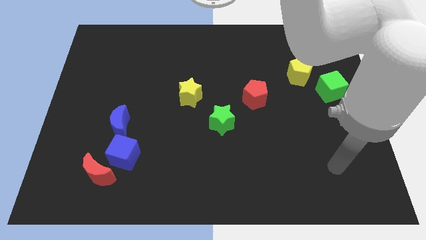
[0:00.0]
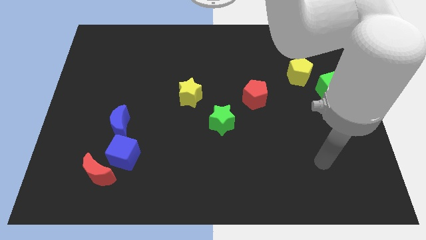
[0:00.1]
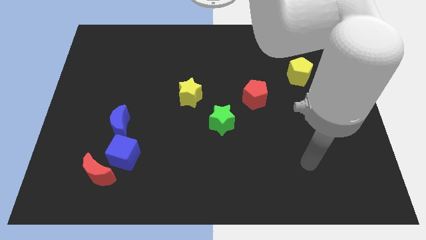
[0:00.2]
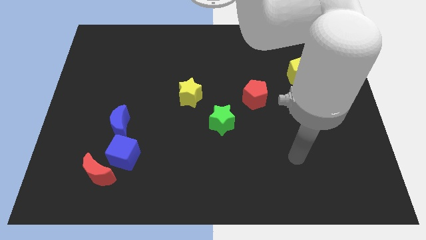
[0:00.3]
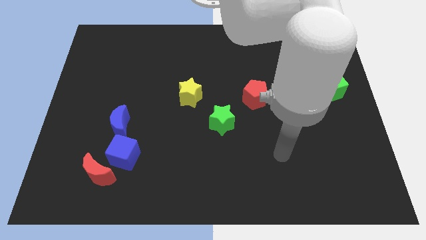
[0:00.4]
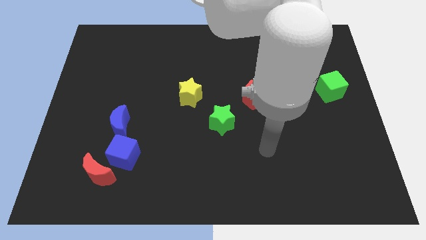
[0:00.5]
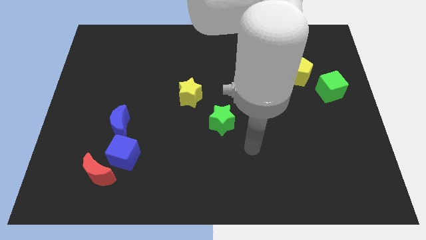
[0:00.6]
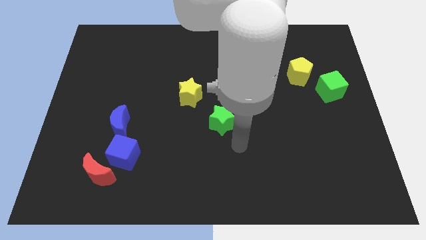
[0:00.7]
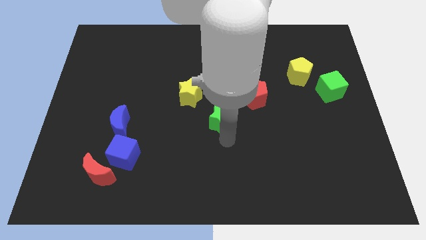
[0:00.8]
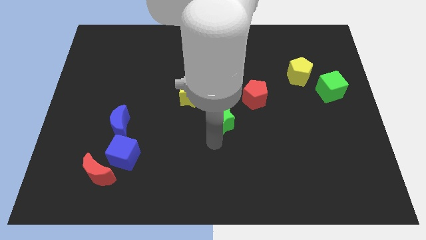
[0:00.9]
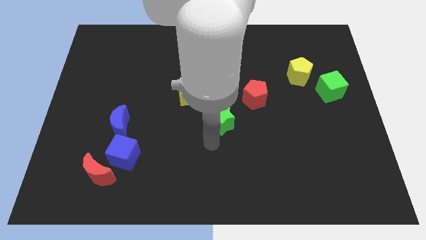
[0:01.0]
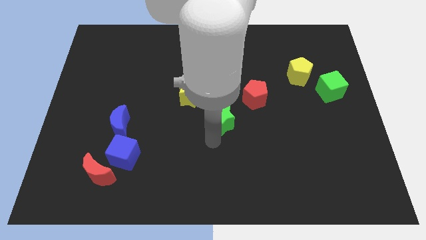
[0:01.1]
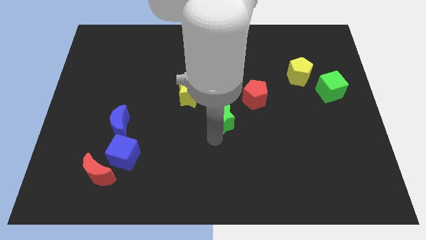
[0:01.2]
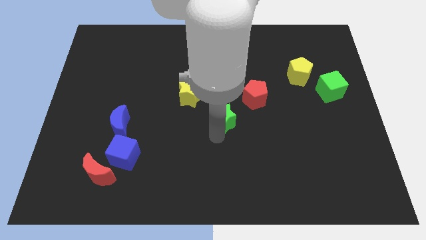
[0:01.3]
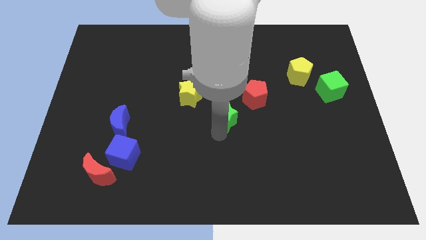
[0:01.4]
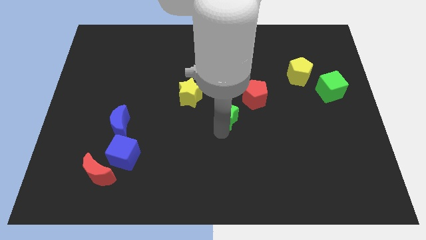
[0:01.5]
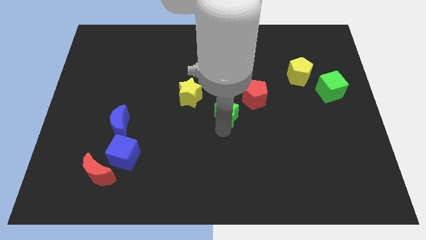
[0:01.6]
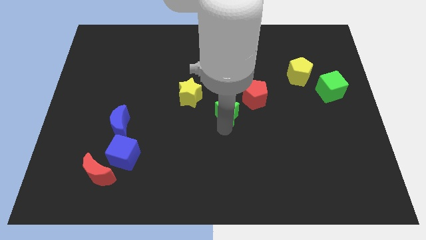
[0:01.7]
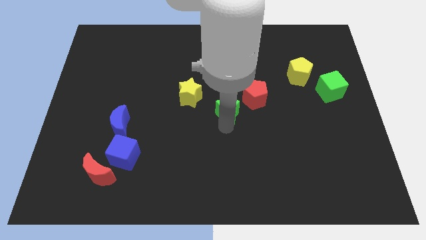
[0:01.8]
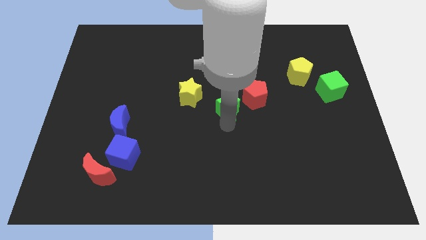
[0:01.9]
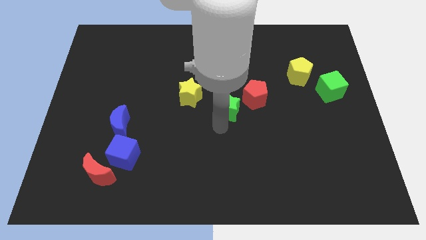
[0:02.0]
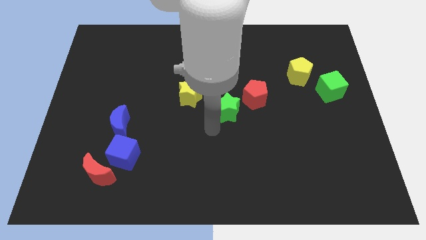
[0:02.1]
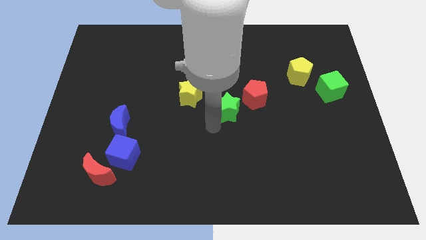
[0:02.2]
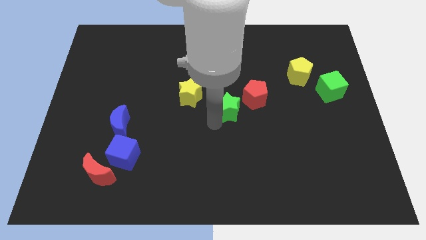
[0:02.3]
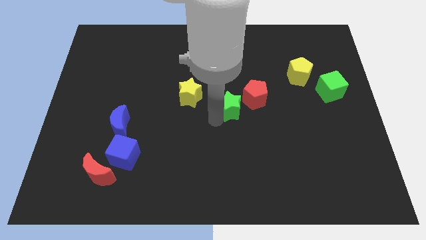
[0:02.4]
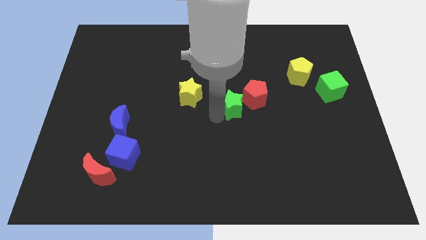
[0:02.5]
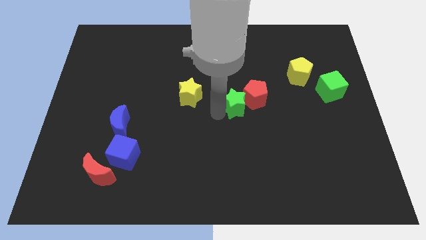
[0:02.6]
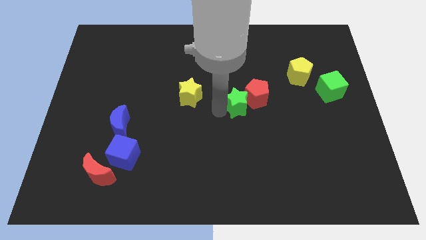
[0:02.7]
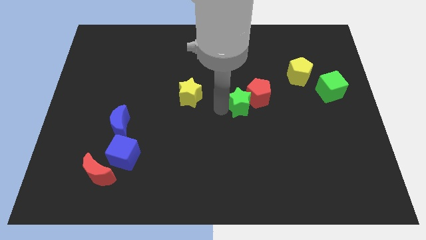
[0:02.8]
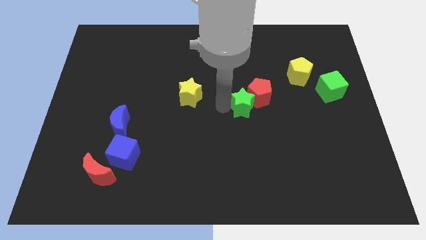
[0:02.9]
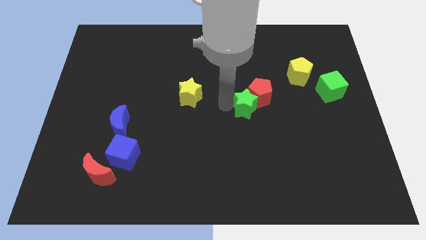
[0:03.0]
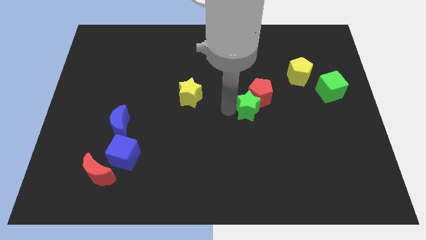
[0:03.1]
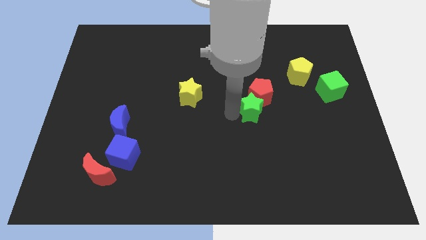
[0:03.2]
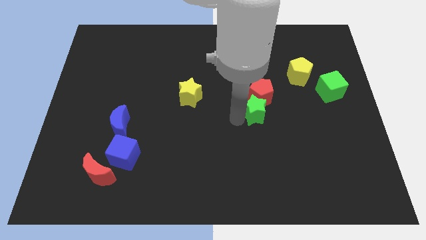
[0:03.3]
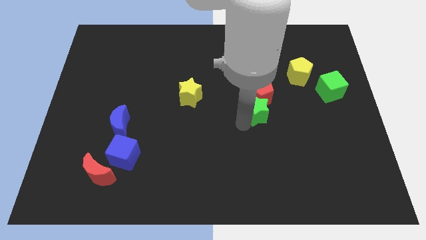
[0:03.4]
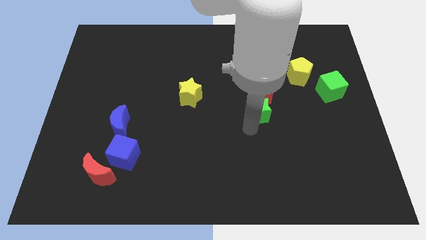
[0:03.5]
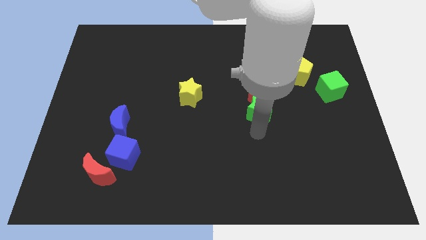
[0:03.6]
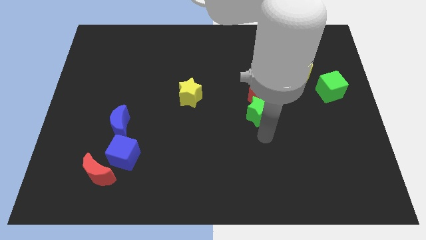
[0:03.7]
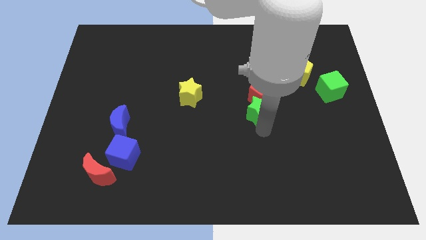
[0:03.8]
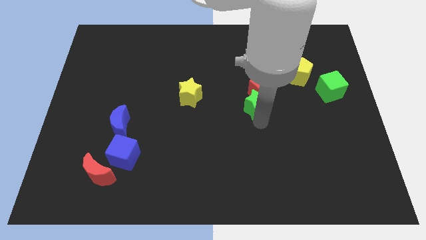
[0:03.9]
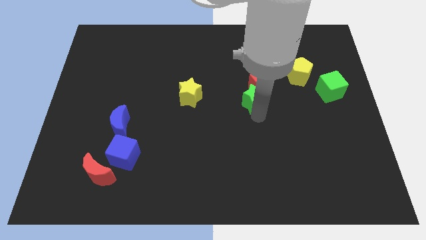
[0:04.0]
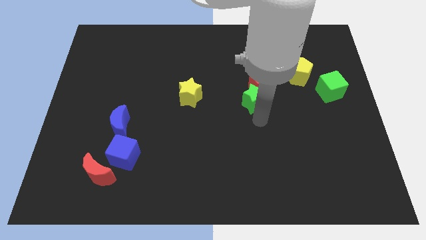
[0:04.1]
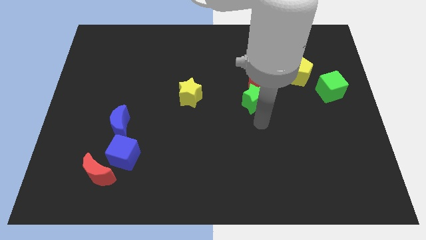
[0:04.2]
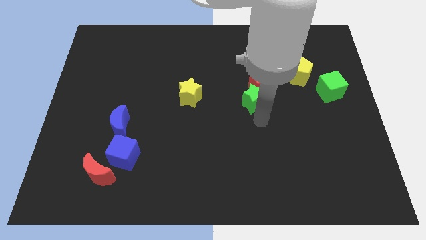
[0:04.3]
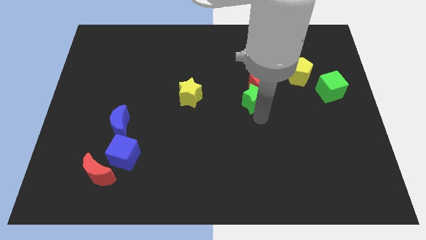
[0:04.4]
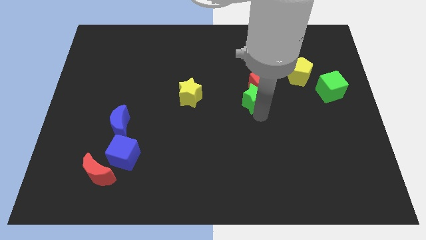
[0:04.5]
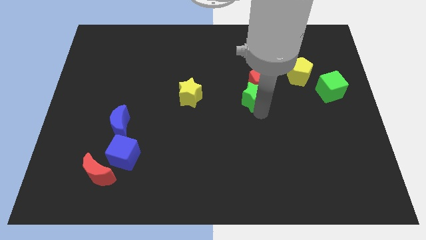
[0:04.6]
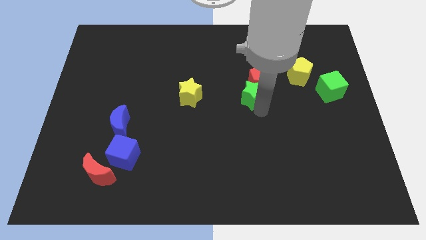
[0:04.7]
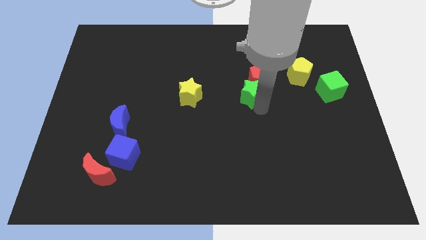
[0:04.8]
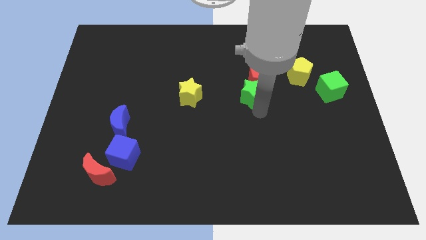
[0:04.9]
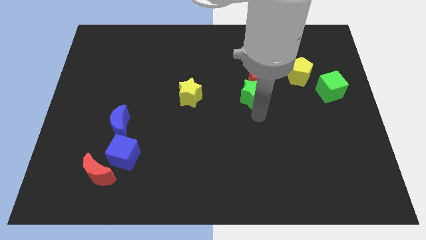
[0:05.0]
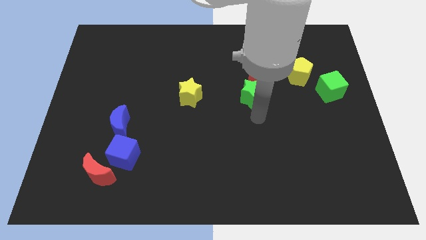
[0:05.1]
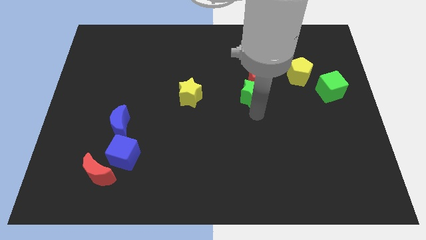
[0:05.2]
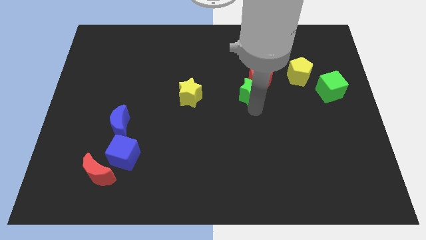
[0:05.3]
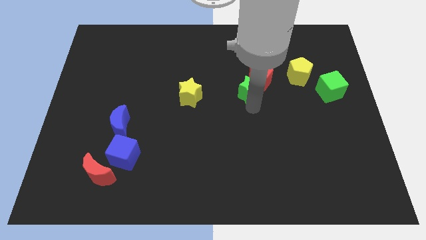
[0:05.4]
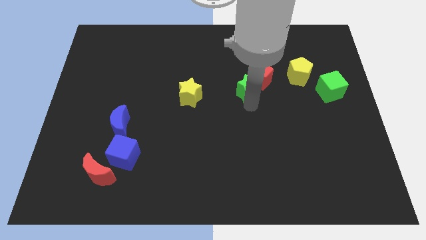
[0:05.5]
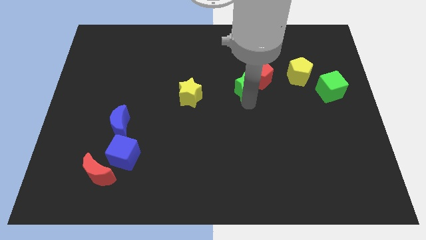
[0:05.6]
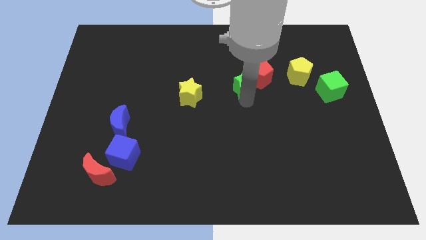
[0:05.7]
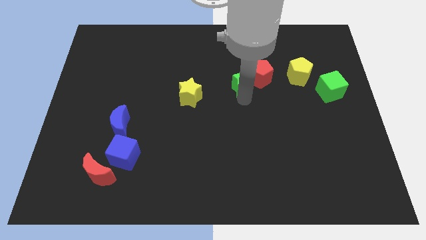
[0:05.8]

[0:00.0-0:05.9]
put the green star to the left side of the yellow pentagon

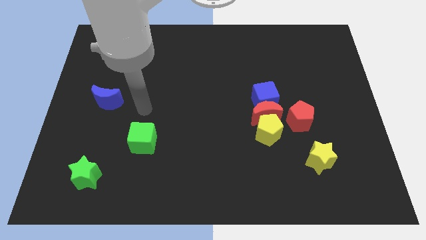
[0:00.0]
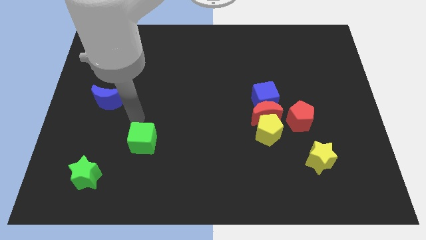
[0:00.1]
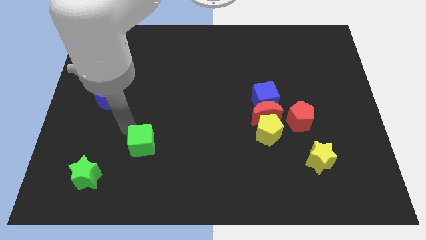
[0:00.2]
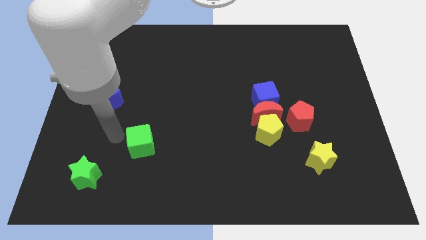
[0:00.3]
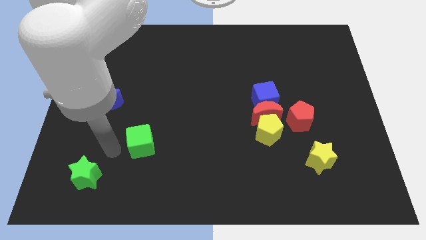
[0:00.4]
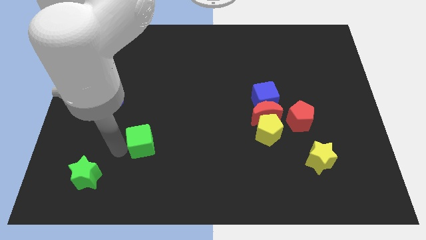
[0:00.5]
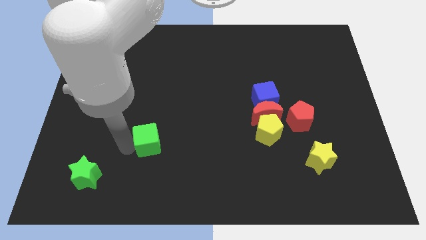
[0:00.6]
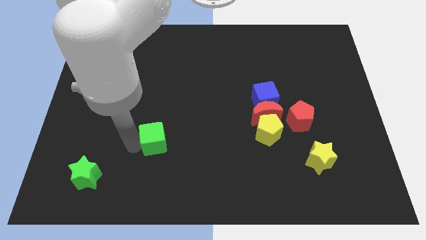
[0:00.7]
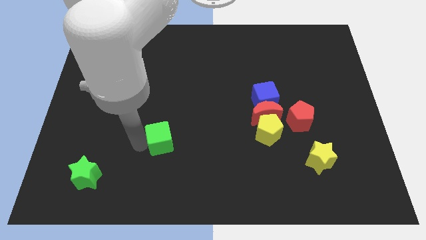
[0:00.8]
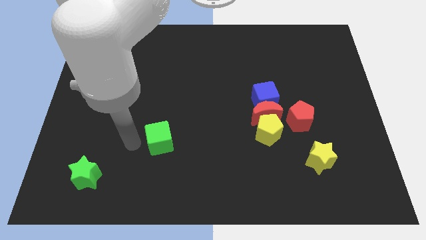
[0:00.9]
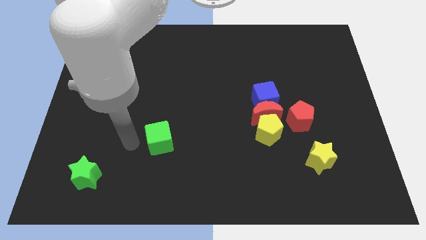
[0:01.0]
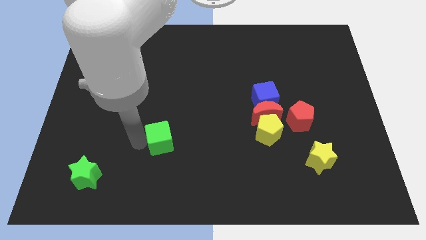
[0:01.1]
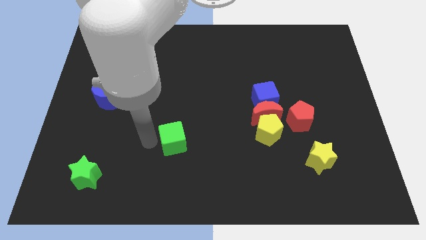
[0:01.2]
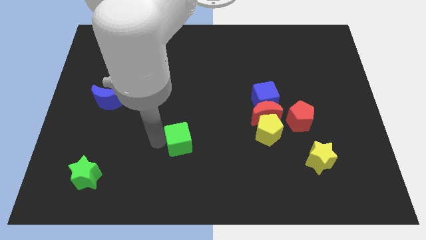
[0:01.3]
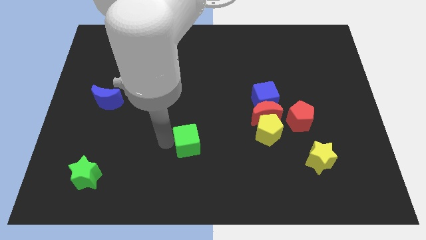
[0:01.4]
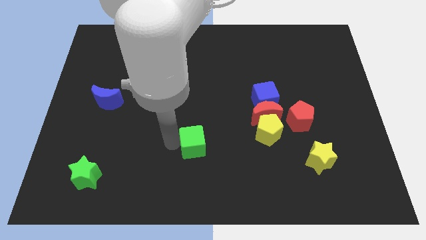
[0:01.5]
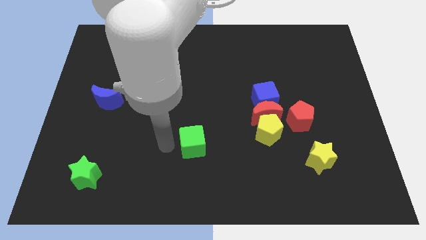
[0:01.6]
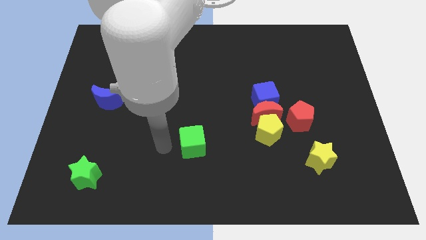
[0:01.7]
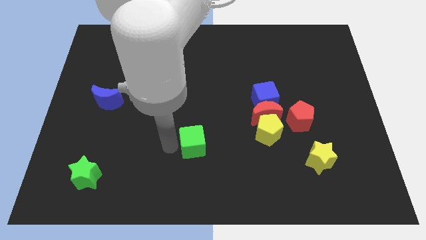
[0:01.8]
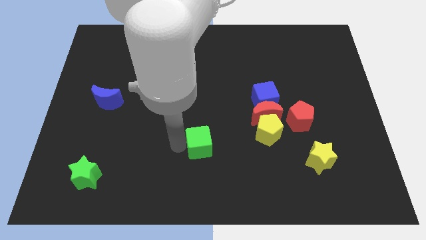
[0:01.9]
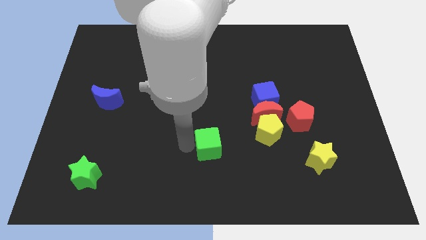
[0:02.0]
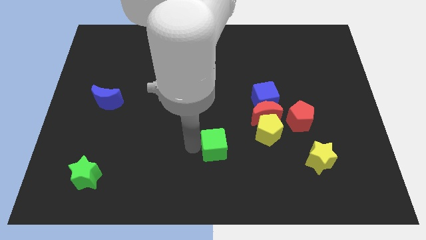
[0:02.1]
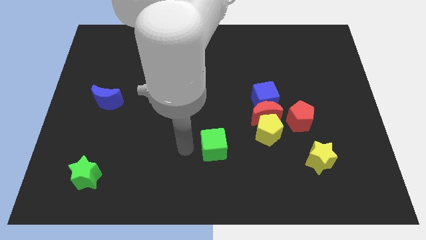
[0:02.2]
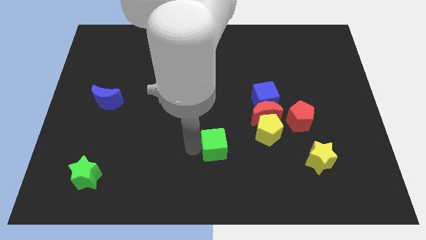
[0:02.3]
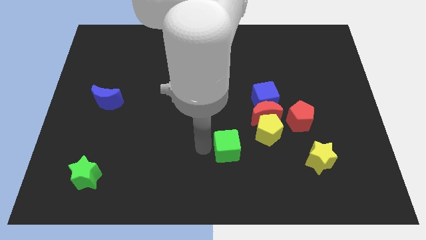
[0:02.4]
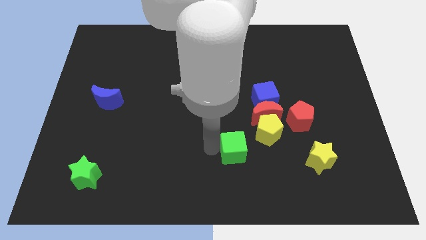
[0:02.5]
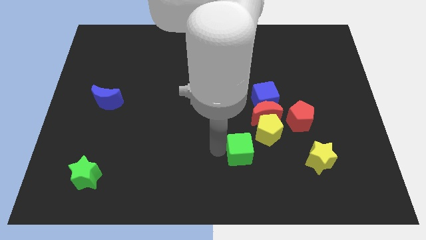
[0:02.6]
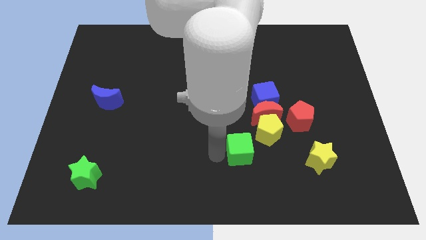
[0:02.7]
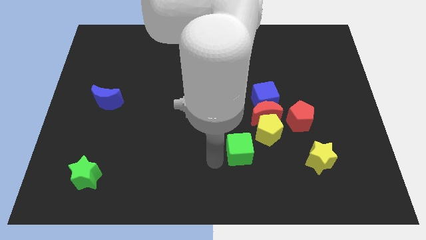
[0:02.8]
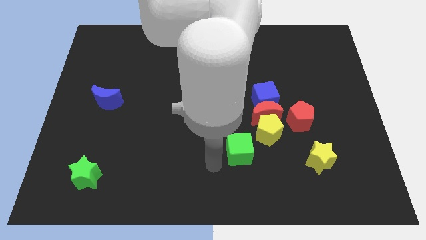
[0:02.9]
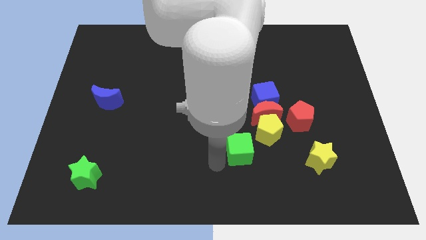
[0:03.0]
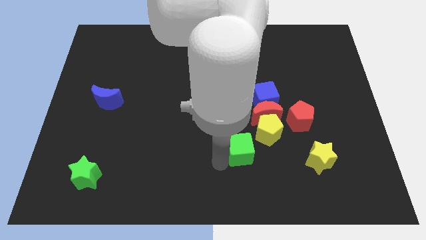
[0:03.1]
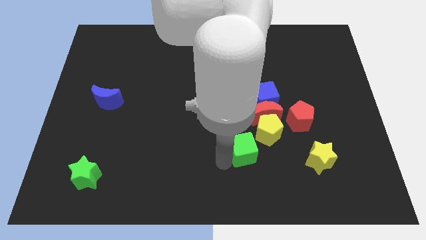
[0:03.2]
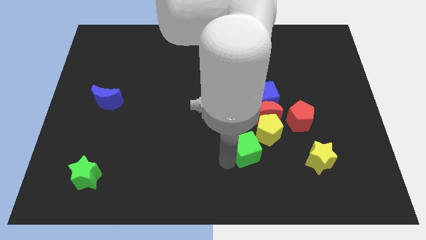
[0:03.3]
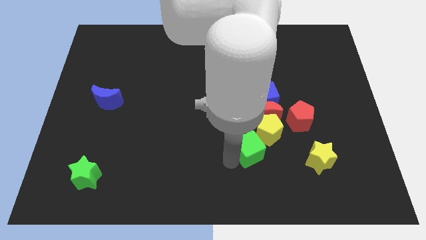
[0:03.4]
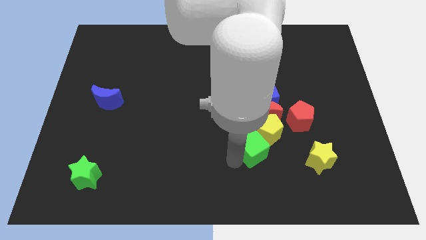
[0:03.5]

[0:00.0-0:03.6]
move the green cube to the bottom side of the blue cube
